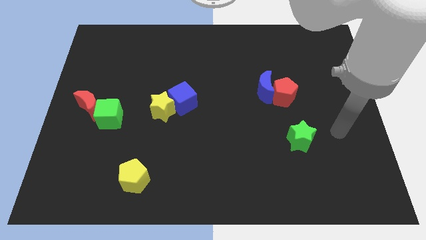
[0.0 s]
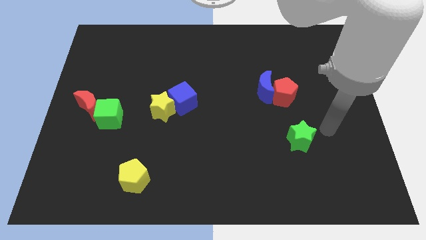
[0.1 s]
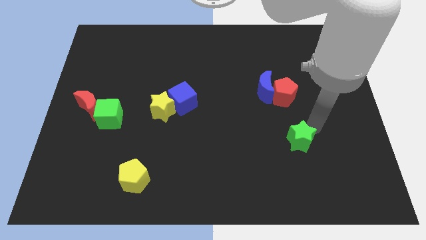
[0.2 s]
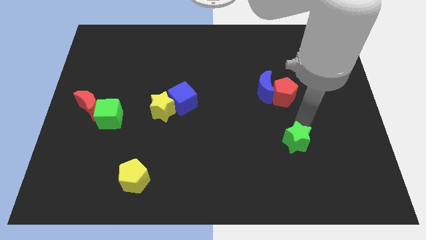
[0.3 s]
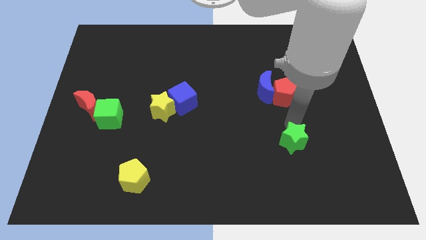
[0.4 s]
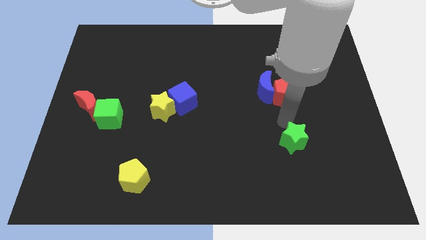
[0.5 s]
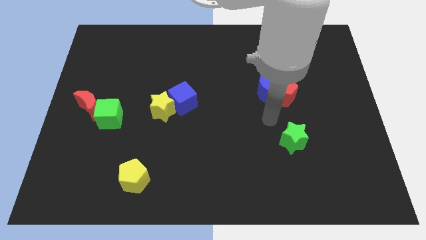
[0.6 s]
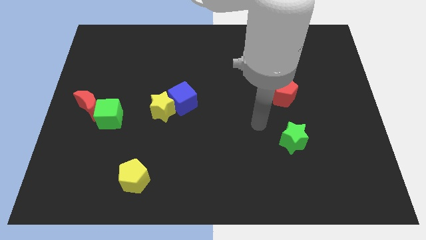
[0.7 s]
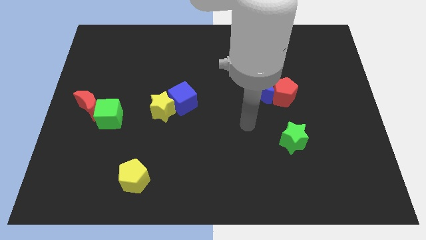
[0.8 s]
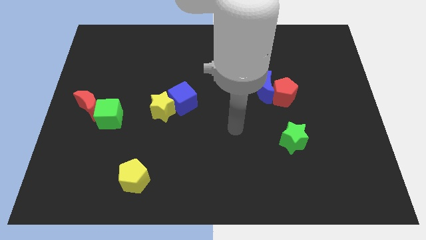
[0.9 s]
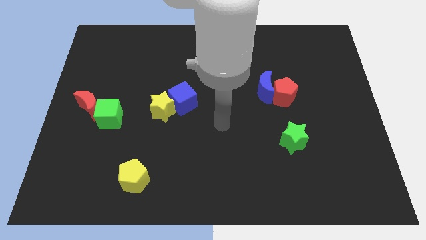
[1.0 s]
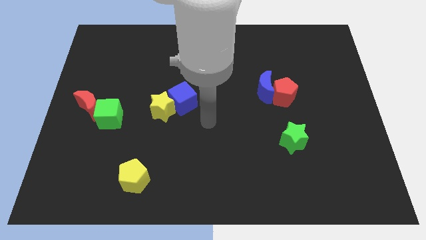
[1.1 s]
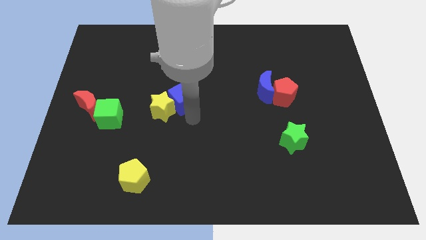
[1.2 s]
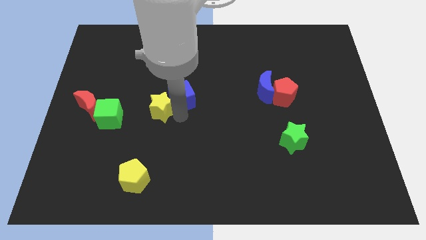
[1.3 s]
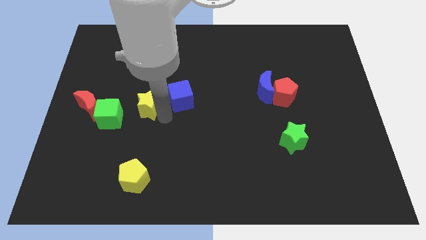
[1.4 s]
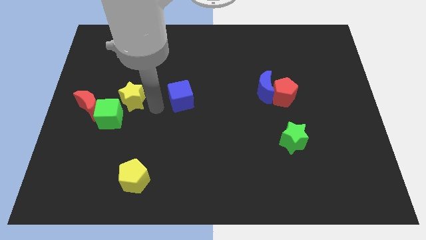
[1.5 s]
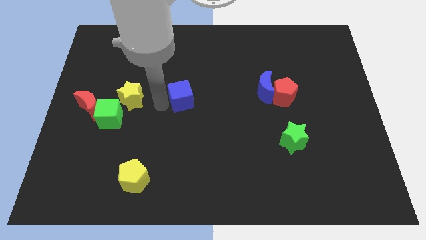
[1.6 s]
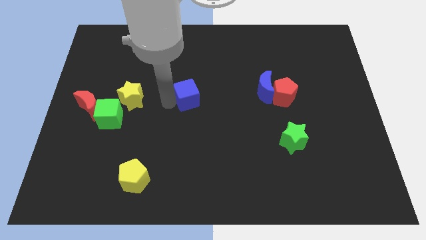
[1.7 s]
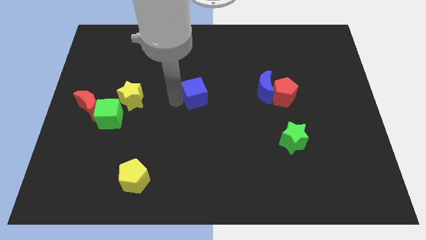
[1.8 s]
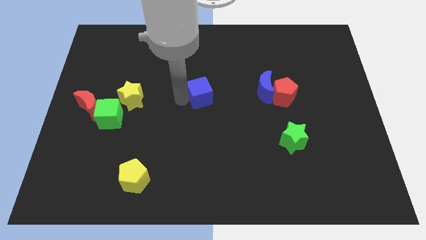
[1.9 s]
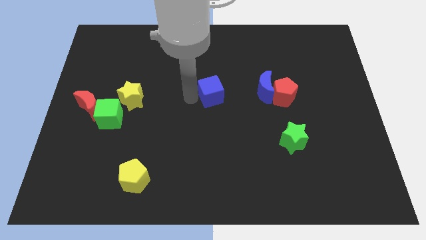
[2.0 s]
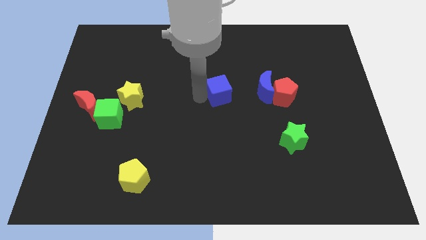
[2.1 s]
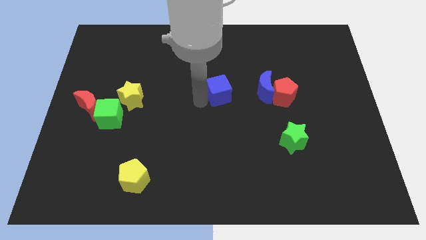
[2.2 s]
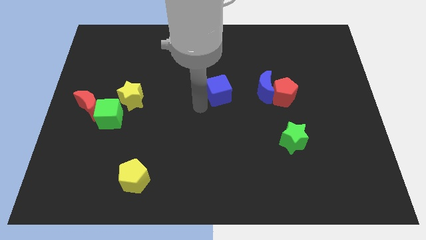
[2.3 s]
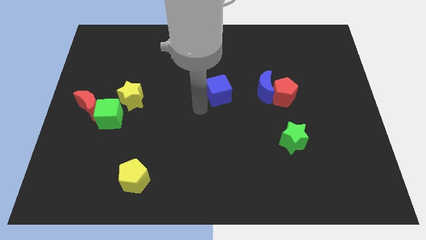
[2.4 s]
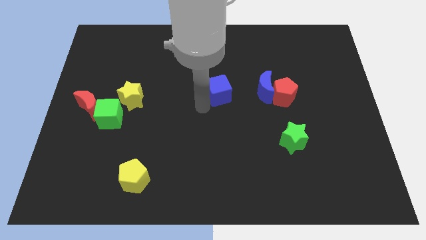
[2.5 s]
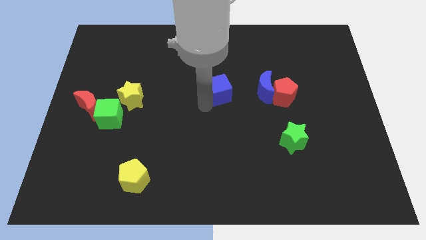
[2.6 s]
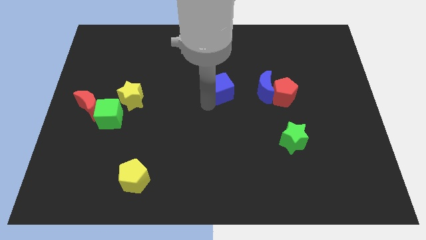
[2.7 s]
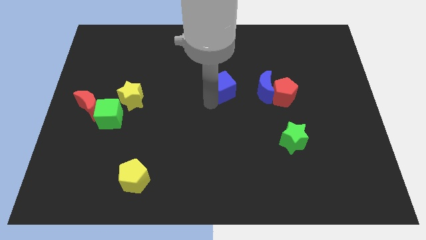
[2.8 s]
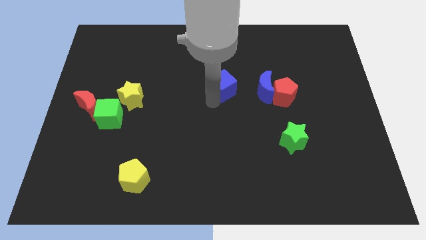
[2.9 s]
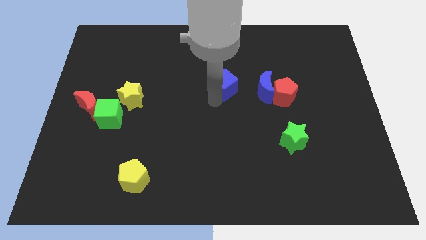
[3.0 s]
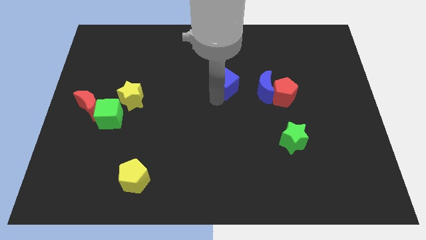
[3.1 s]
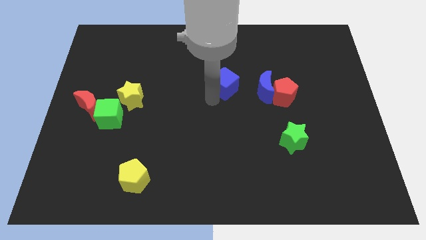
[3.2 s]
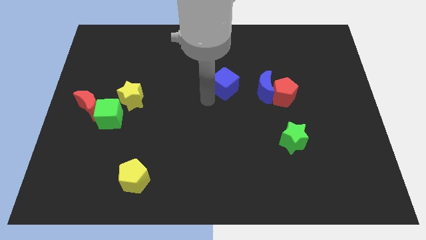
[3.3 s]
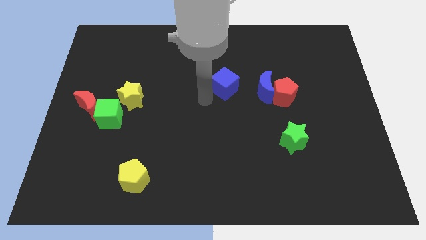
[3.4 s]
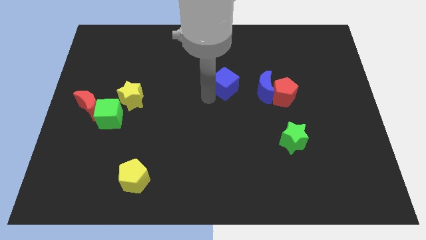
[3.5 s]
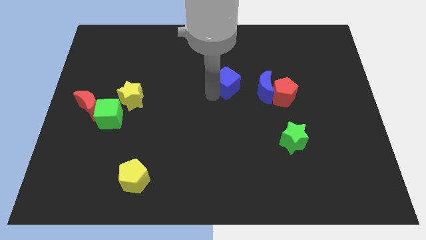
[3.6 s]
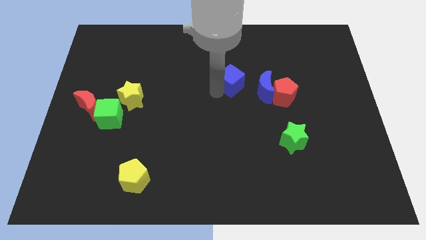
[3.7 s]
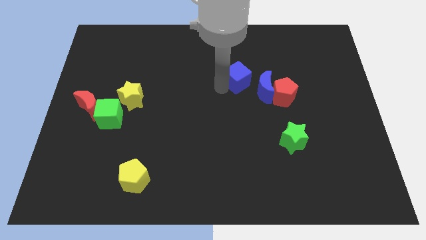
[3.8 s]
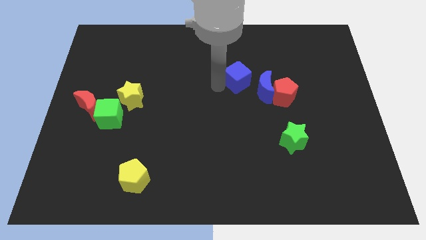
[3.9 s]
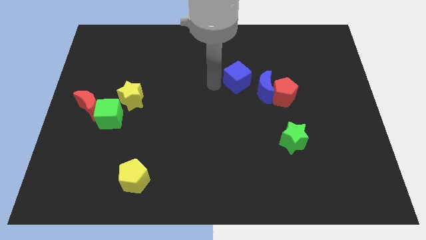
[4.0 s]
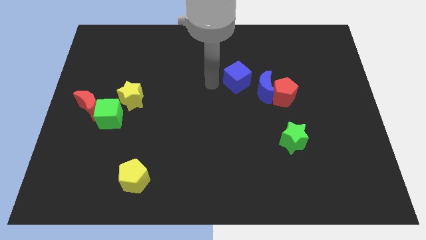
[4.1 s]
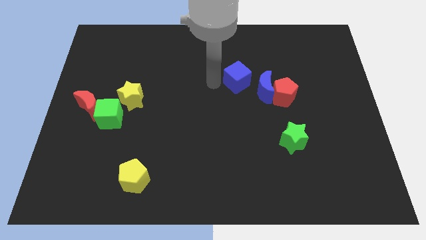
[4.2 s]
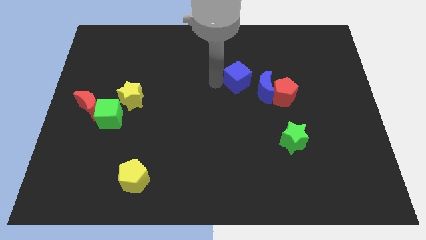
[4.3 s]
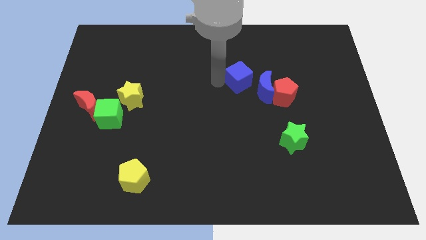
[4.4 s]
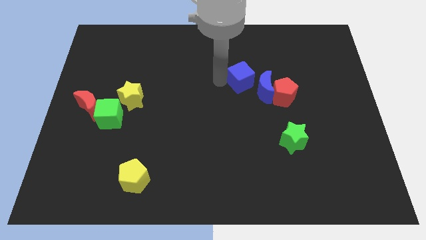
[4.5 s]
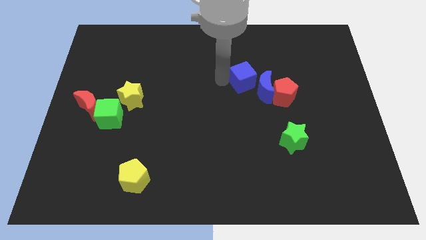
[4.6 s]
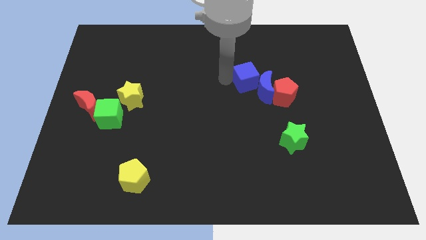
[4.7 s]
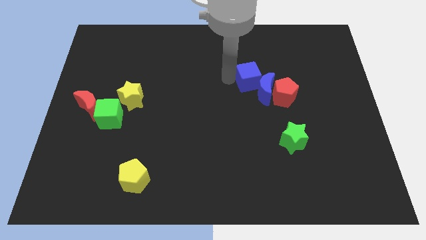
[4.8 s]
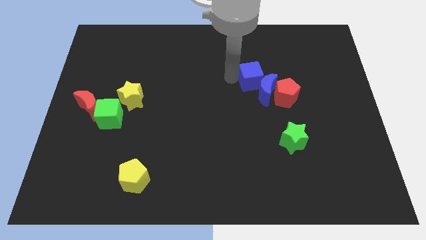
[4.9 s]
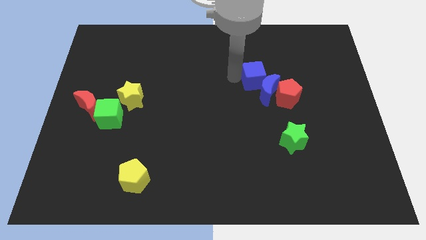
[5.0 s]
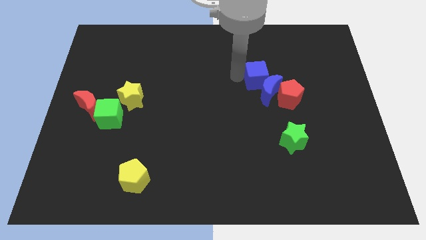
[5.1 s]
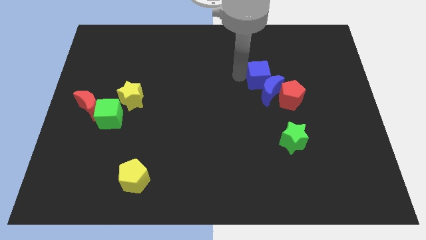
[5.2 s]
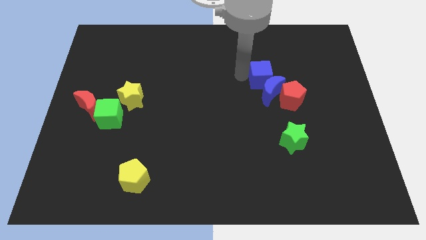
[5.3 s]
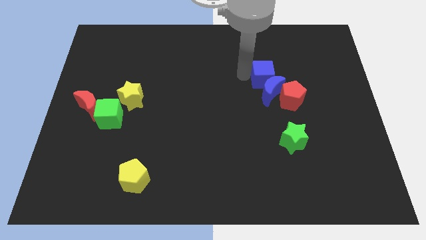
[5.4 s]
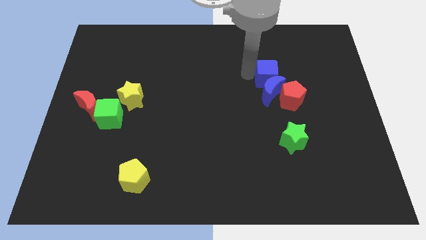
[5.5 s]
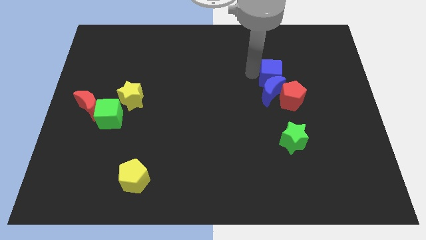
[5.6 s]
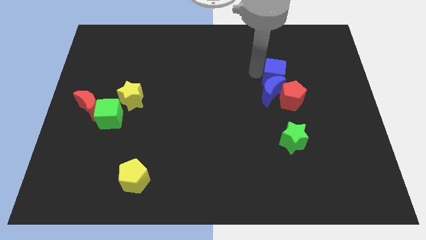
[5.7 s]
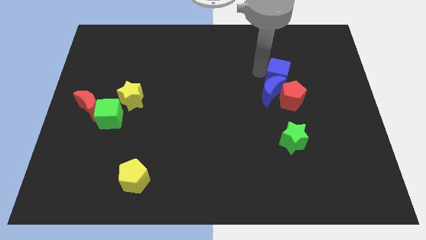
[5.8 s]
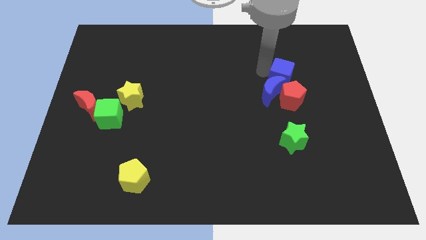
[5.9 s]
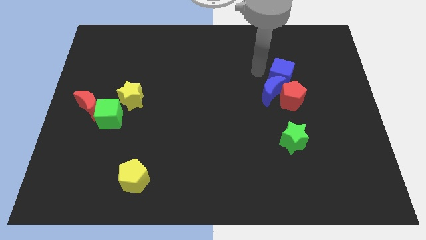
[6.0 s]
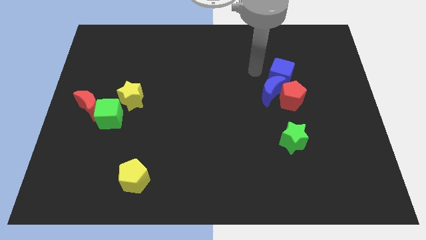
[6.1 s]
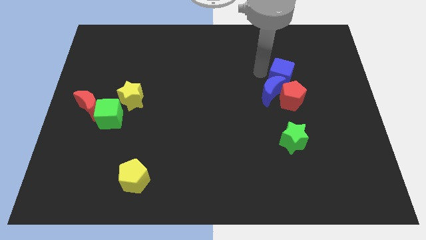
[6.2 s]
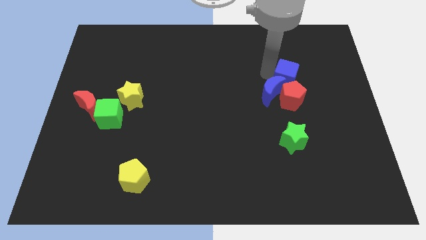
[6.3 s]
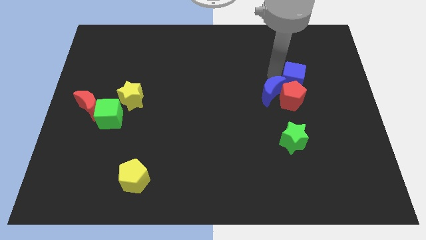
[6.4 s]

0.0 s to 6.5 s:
push the blue cube diagonally up and to the right of the red pentagon

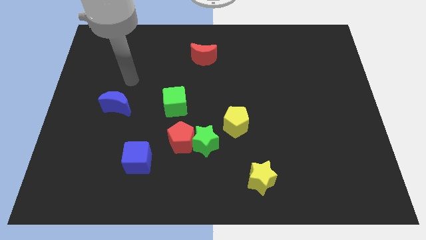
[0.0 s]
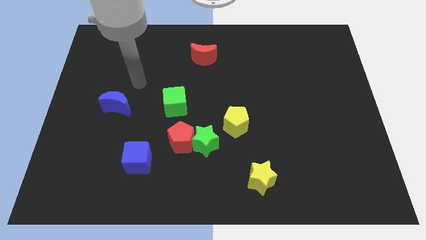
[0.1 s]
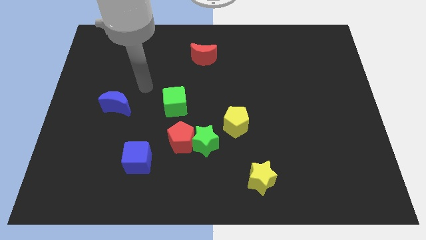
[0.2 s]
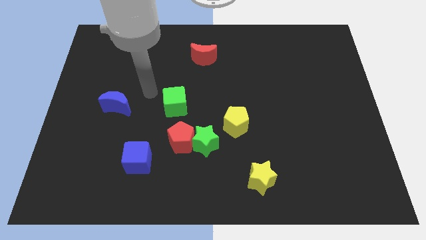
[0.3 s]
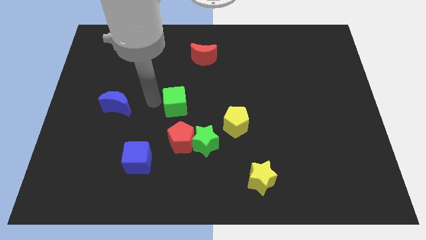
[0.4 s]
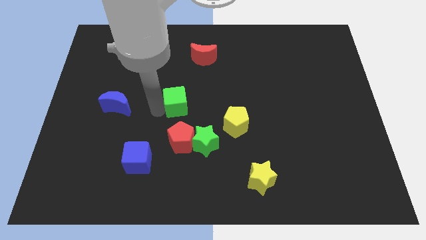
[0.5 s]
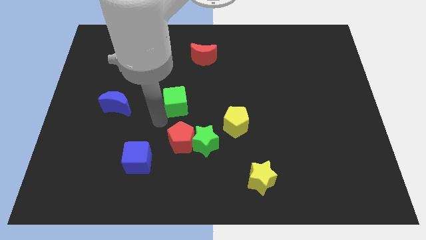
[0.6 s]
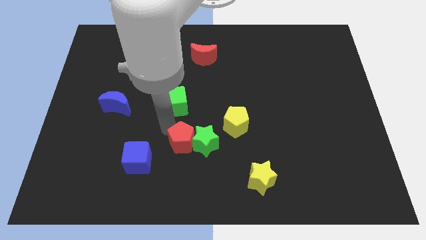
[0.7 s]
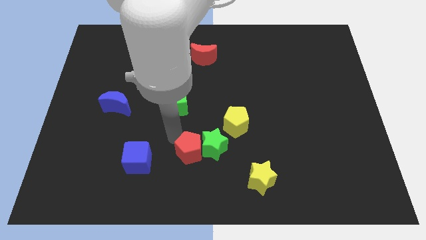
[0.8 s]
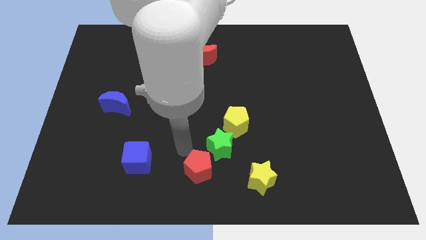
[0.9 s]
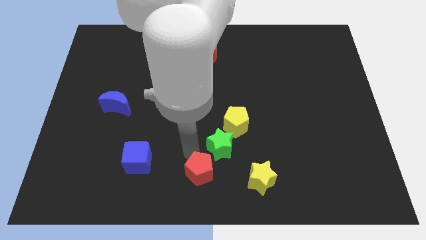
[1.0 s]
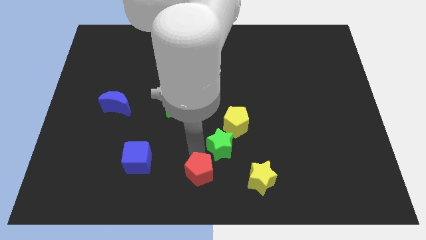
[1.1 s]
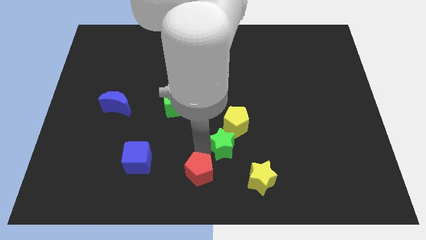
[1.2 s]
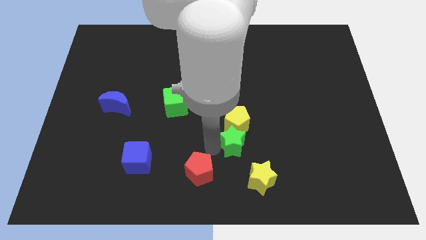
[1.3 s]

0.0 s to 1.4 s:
slide the green star to the bottom right side of the yellow pentagon

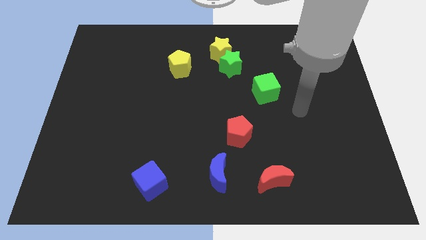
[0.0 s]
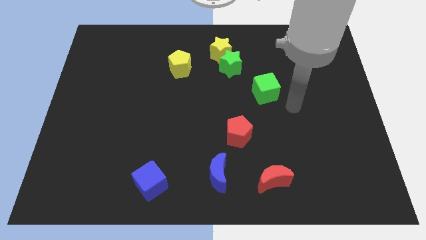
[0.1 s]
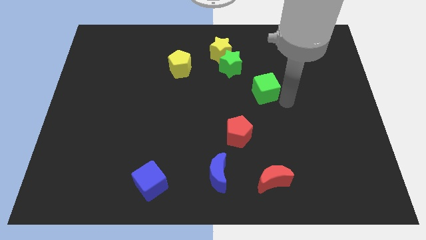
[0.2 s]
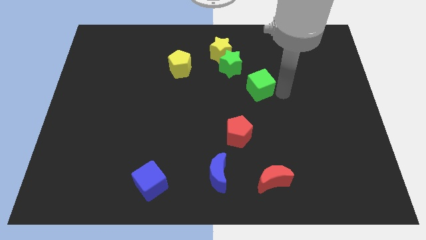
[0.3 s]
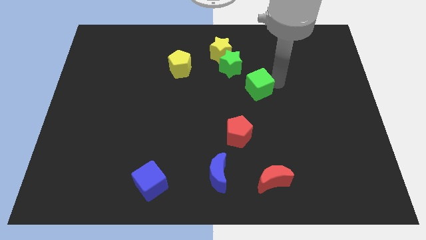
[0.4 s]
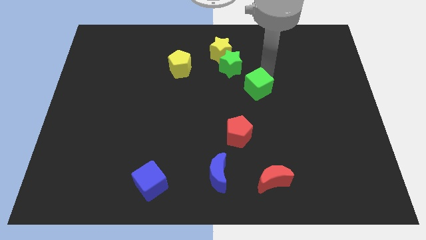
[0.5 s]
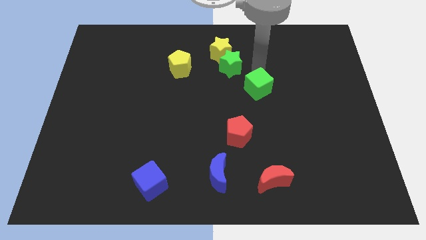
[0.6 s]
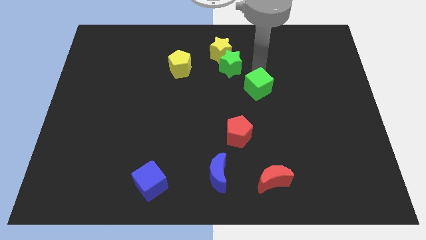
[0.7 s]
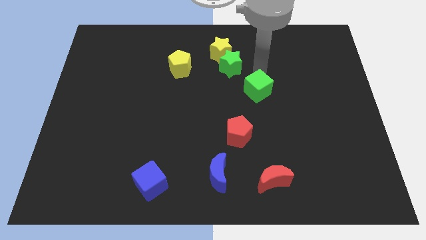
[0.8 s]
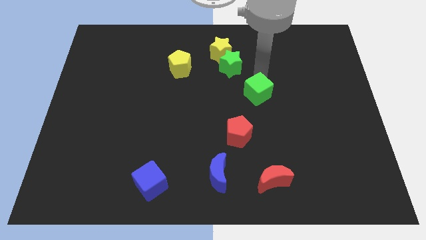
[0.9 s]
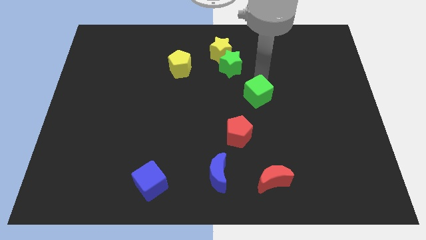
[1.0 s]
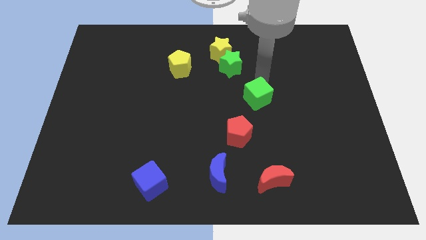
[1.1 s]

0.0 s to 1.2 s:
put the green cube to the top right of the red pentagon
